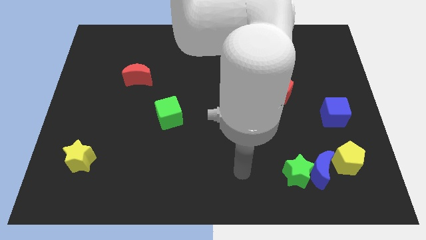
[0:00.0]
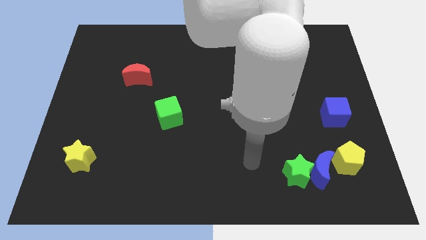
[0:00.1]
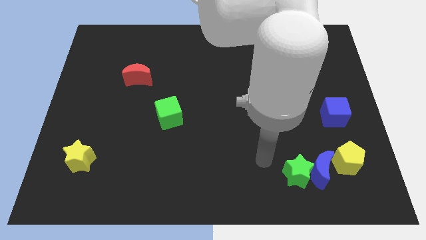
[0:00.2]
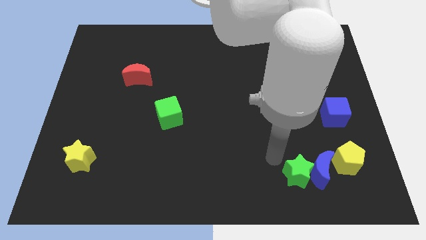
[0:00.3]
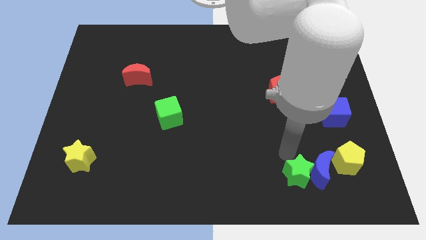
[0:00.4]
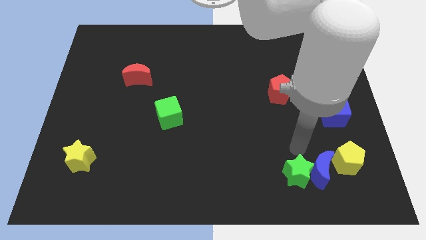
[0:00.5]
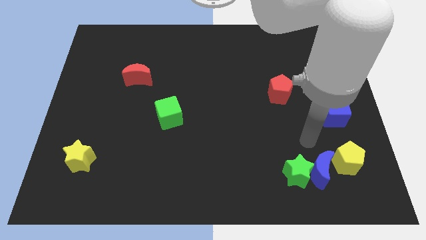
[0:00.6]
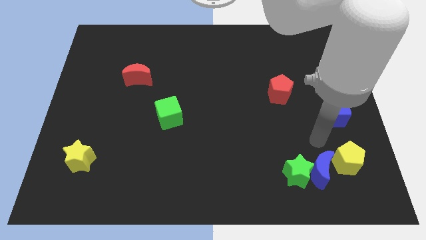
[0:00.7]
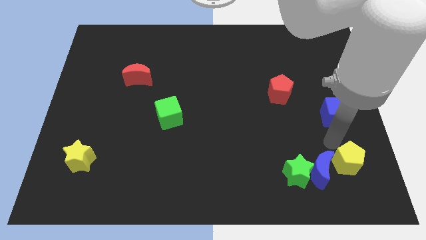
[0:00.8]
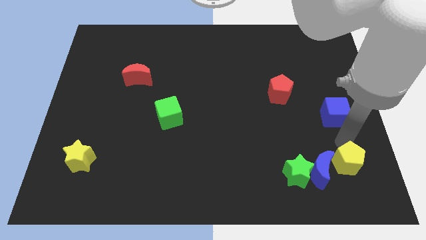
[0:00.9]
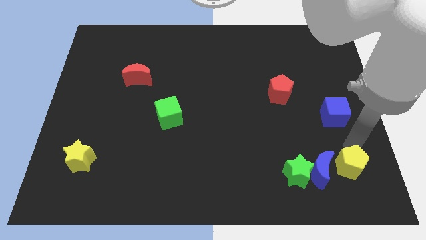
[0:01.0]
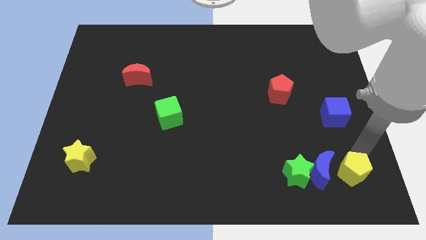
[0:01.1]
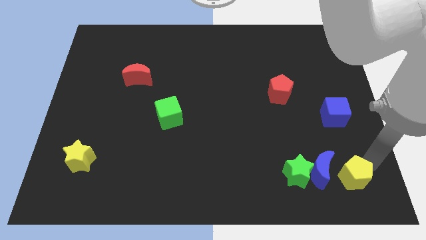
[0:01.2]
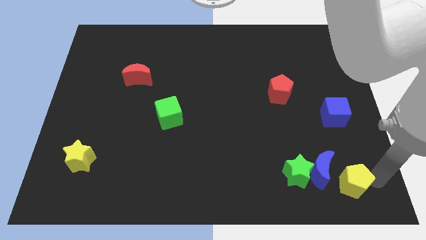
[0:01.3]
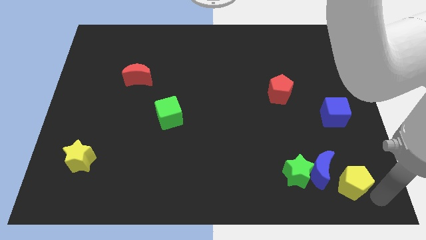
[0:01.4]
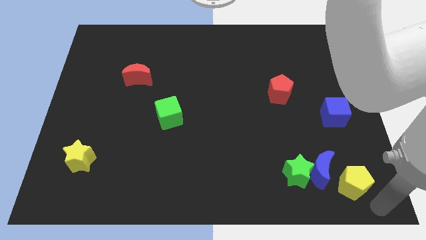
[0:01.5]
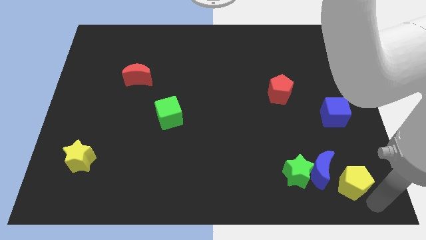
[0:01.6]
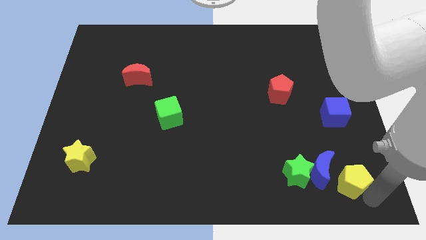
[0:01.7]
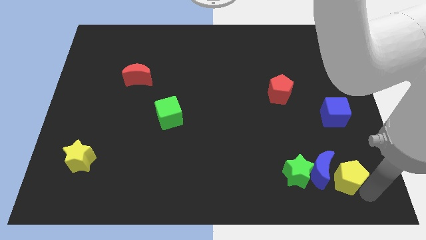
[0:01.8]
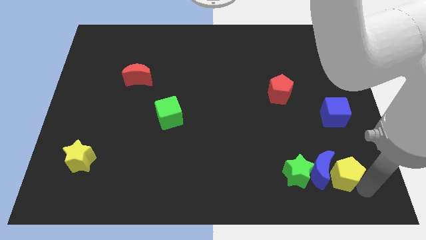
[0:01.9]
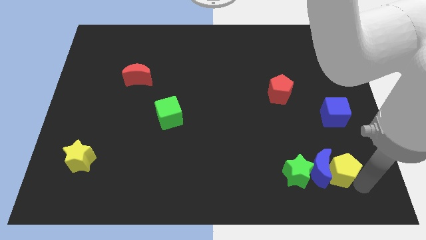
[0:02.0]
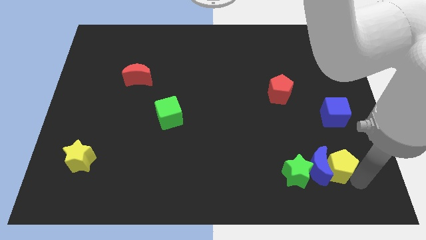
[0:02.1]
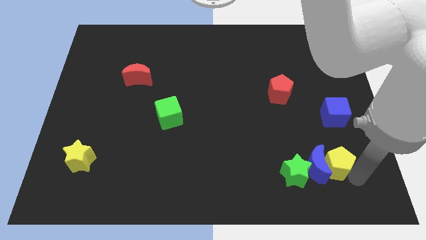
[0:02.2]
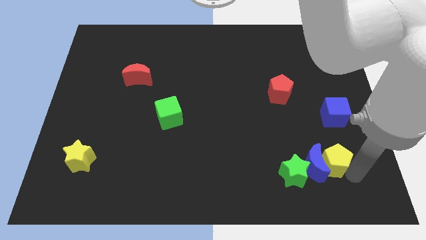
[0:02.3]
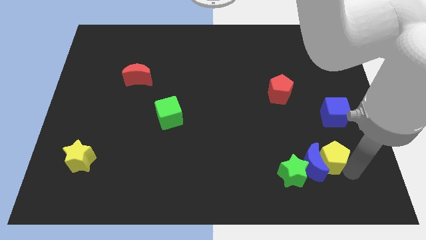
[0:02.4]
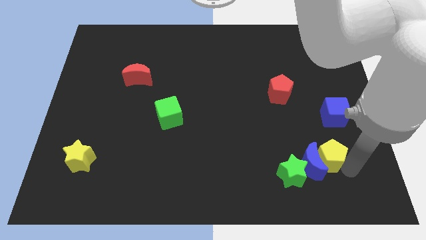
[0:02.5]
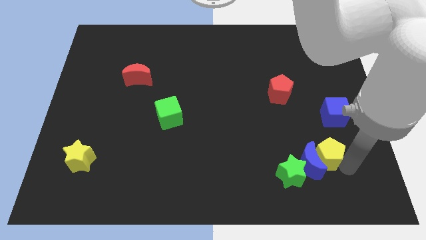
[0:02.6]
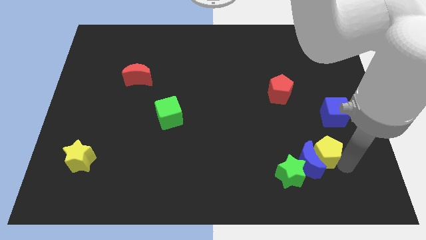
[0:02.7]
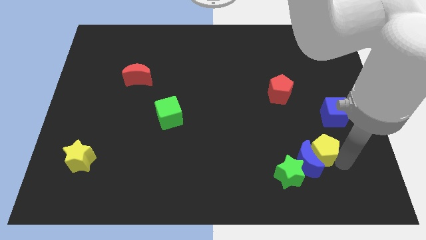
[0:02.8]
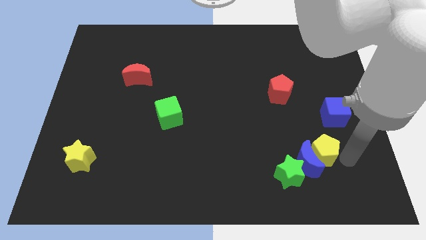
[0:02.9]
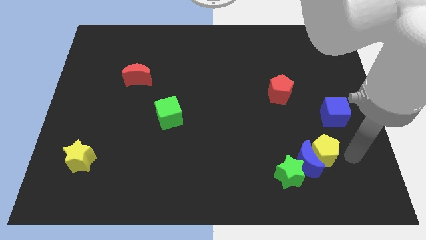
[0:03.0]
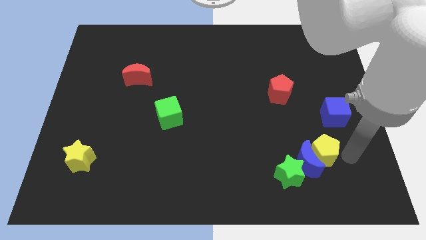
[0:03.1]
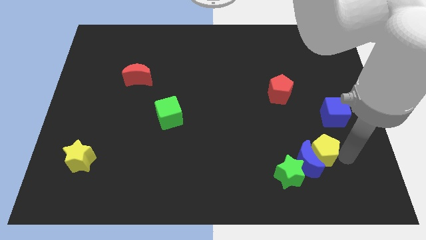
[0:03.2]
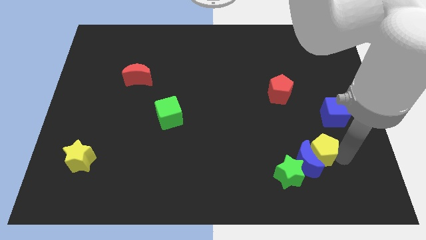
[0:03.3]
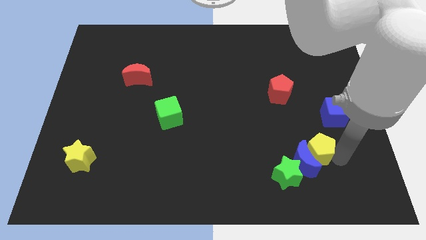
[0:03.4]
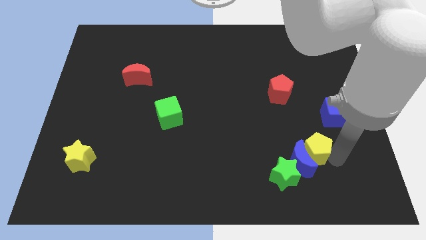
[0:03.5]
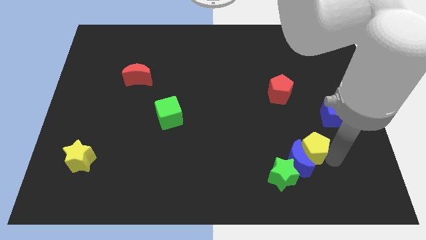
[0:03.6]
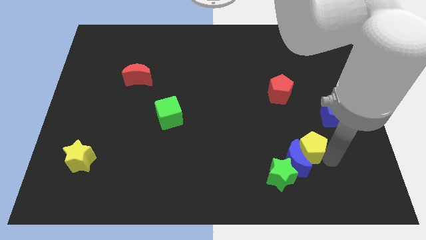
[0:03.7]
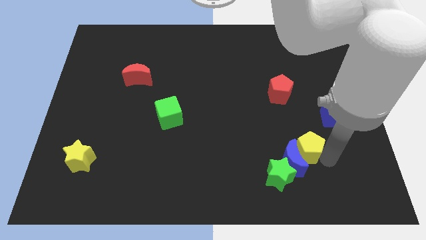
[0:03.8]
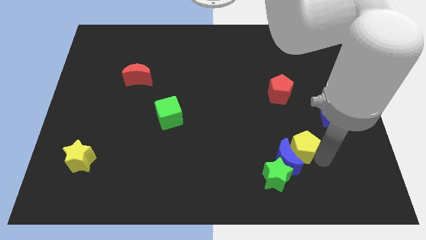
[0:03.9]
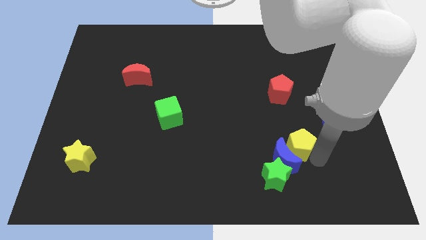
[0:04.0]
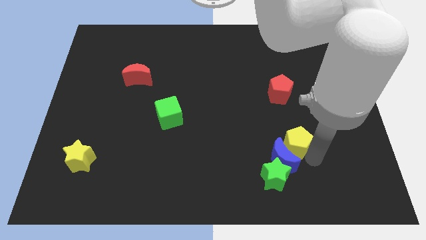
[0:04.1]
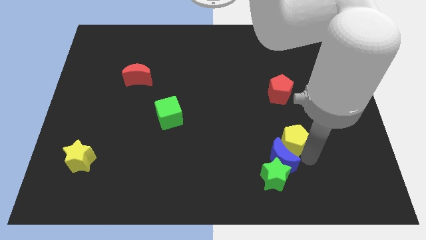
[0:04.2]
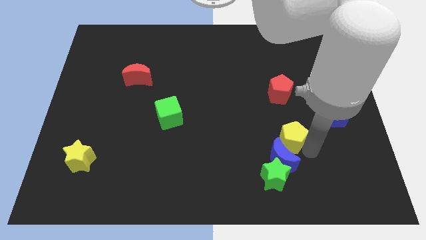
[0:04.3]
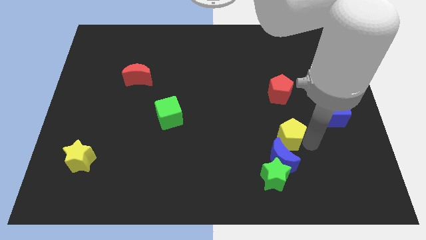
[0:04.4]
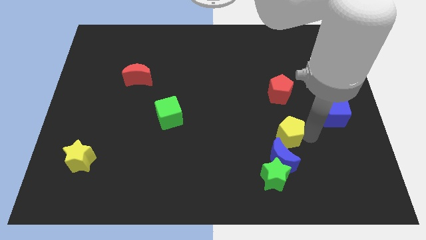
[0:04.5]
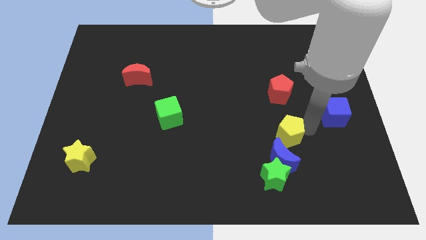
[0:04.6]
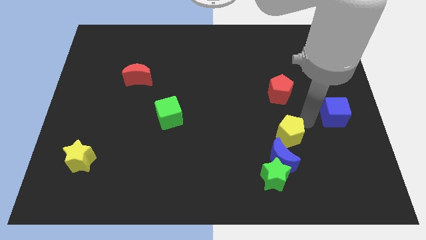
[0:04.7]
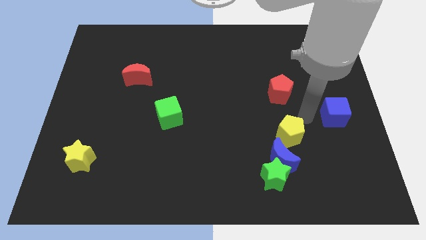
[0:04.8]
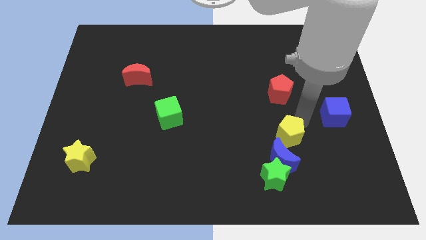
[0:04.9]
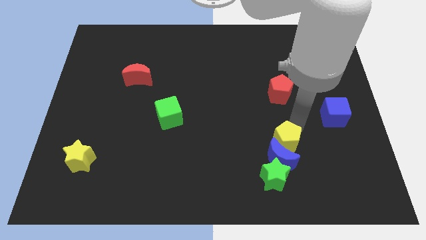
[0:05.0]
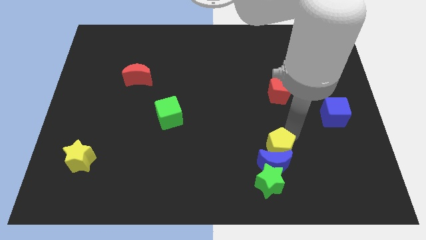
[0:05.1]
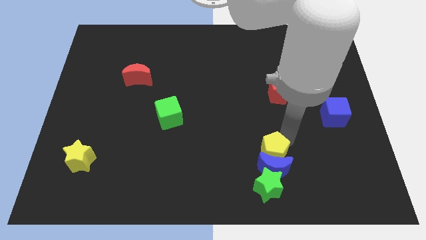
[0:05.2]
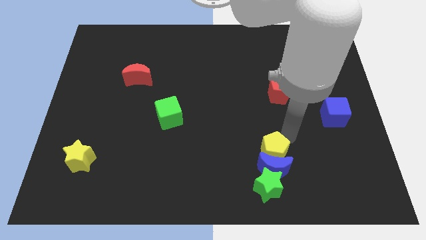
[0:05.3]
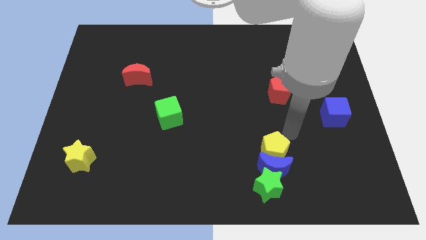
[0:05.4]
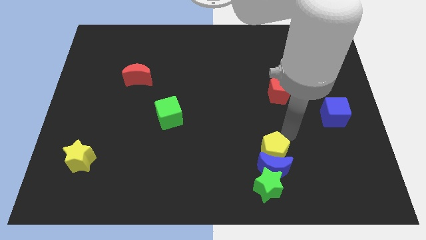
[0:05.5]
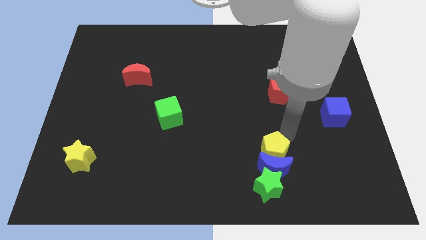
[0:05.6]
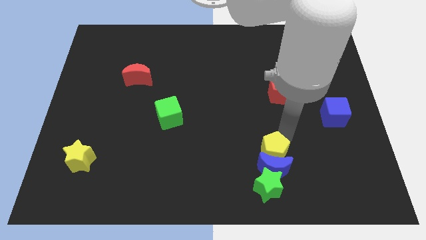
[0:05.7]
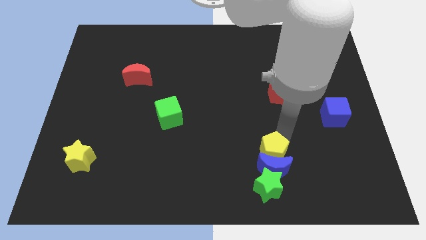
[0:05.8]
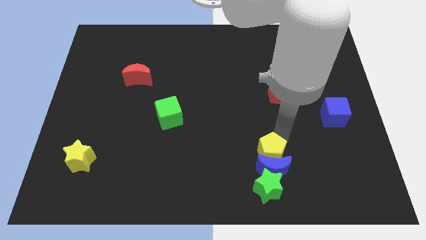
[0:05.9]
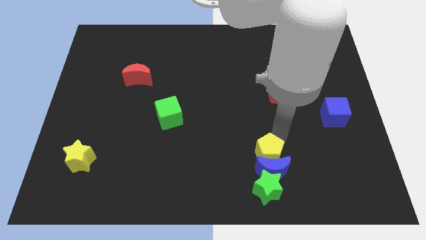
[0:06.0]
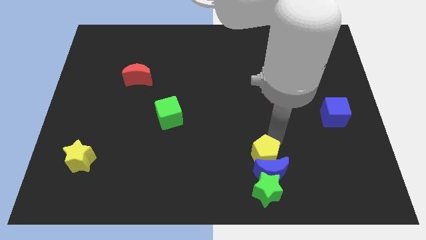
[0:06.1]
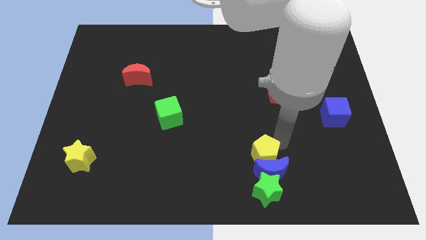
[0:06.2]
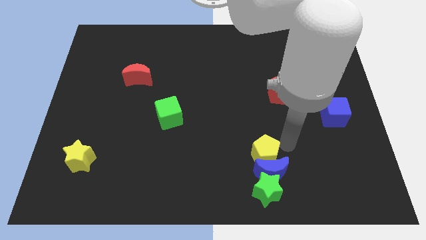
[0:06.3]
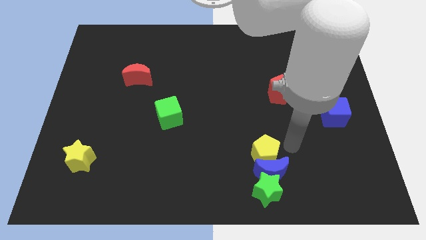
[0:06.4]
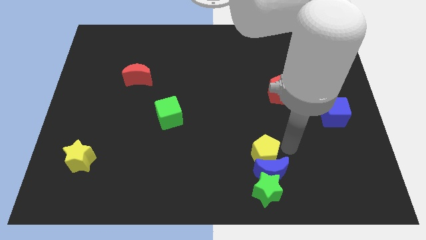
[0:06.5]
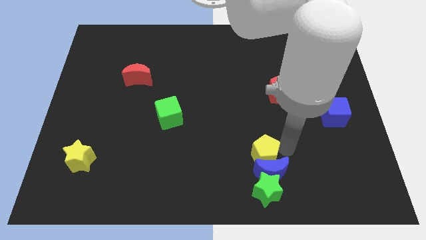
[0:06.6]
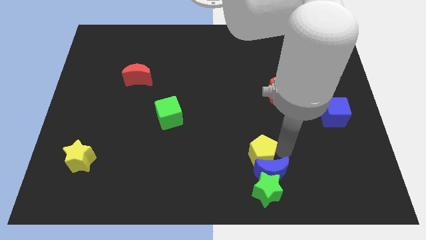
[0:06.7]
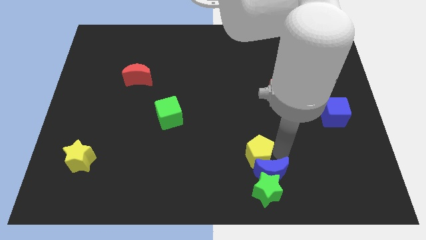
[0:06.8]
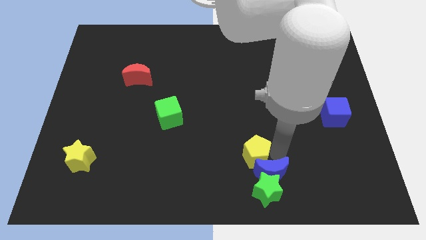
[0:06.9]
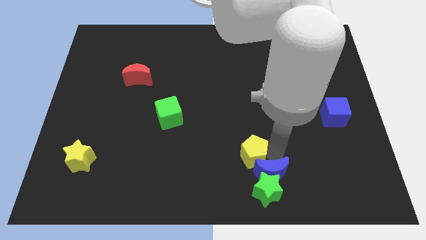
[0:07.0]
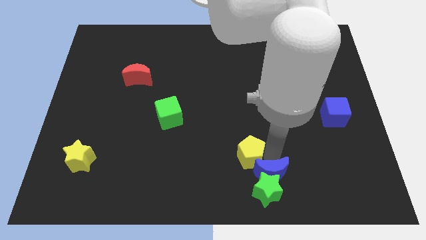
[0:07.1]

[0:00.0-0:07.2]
slide the yellow pentagon left

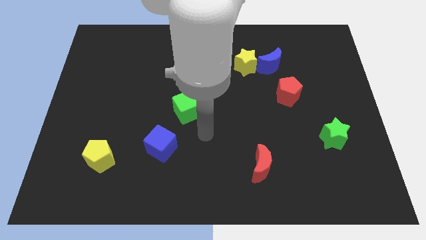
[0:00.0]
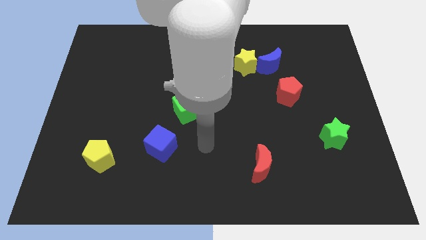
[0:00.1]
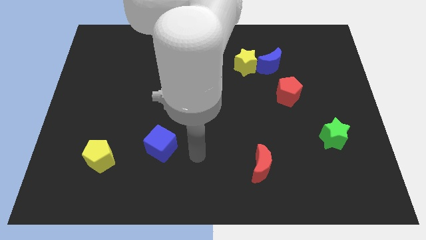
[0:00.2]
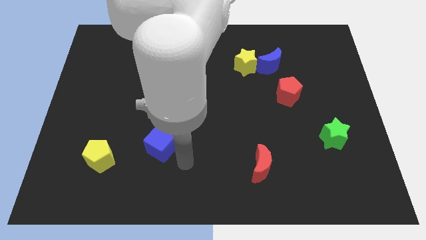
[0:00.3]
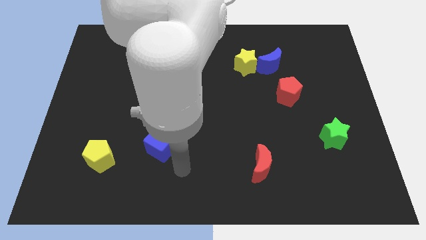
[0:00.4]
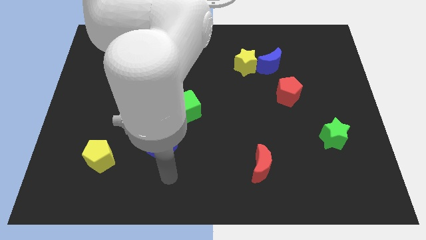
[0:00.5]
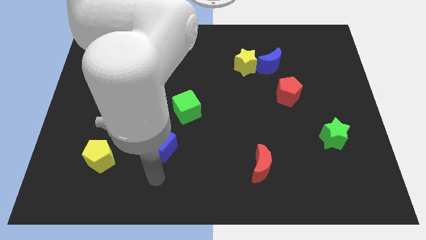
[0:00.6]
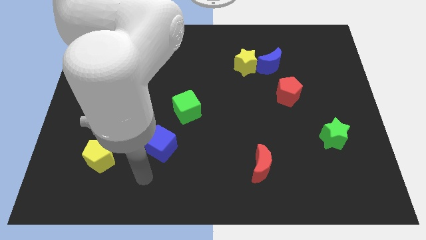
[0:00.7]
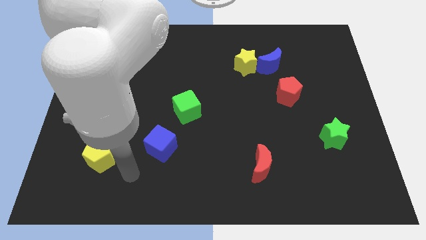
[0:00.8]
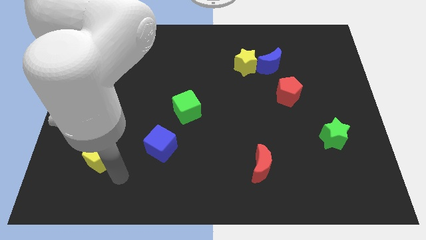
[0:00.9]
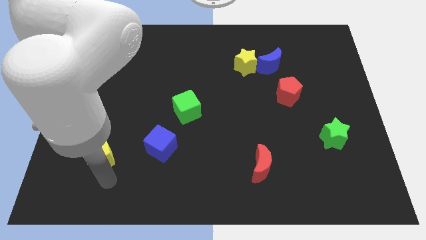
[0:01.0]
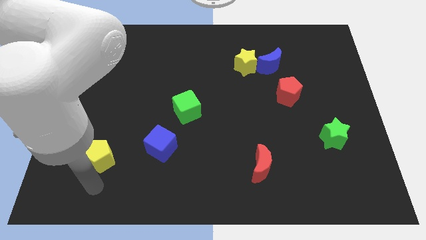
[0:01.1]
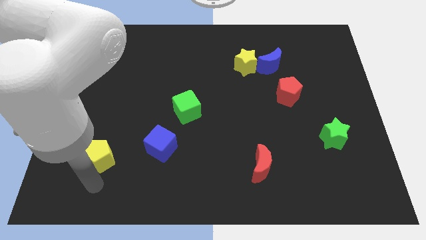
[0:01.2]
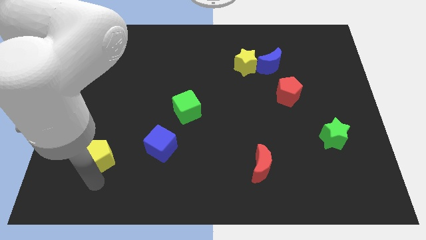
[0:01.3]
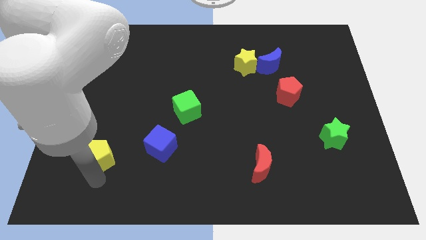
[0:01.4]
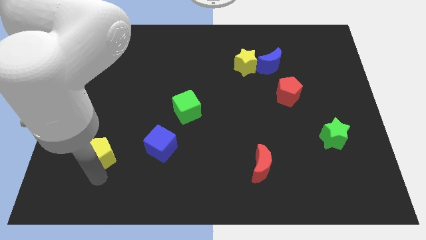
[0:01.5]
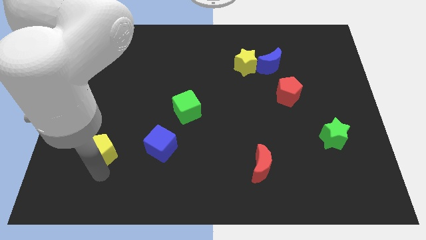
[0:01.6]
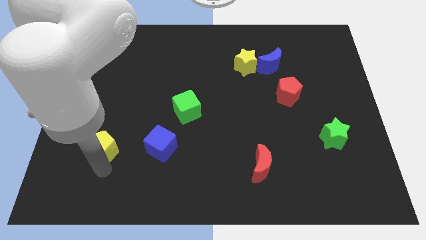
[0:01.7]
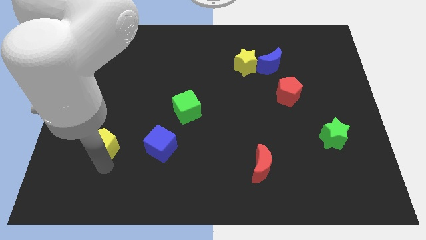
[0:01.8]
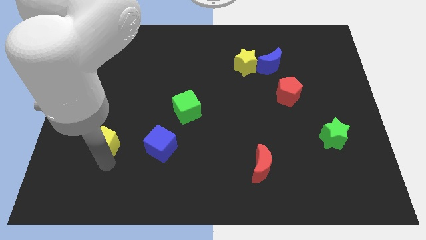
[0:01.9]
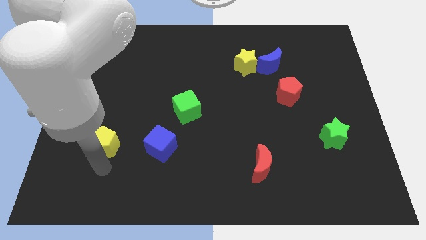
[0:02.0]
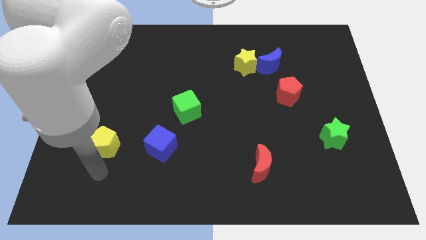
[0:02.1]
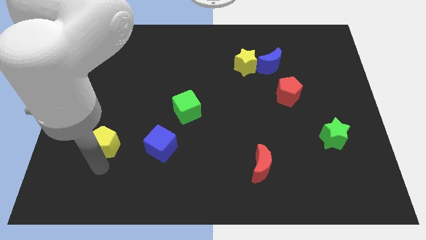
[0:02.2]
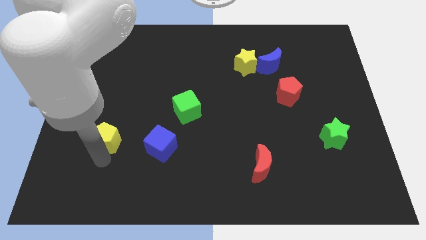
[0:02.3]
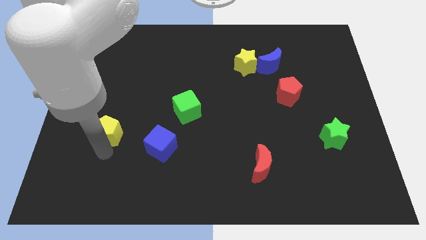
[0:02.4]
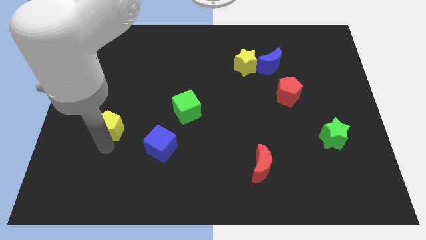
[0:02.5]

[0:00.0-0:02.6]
move the yellow pentagon a little upwards
